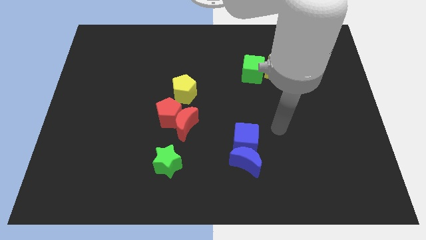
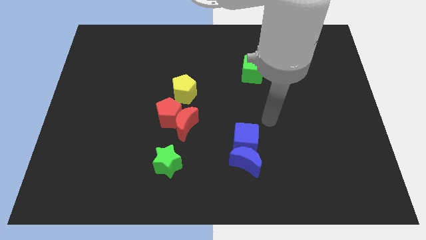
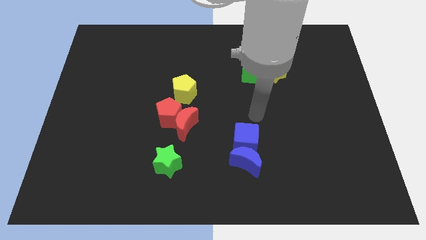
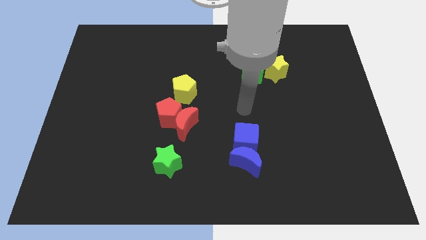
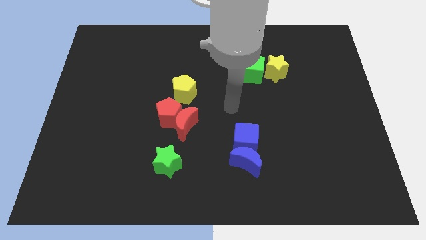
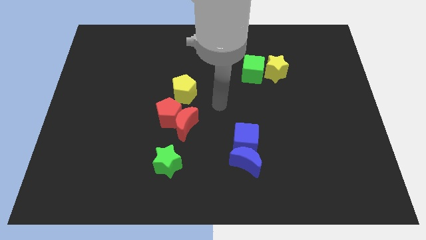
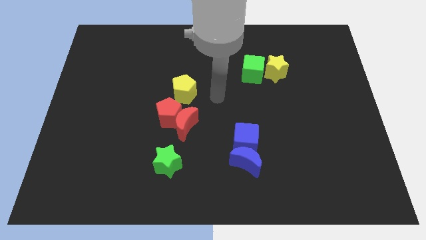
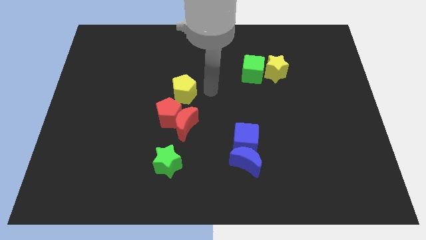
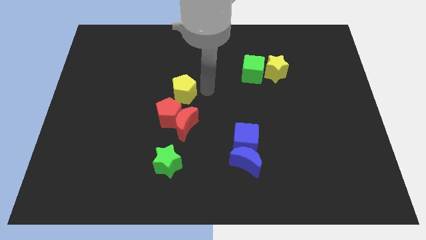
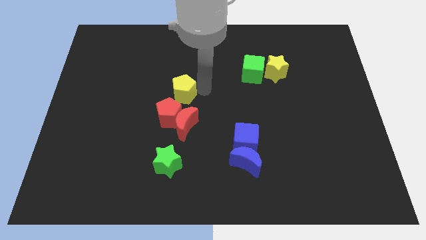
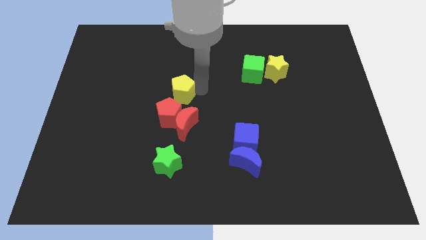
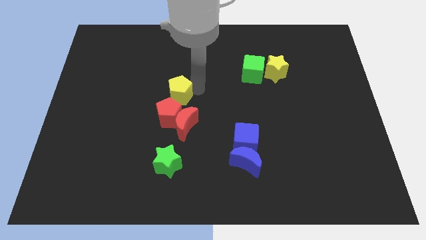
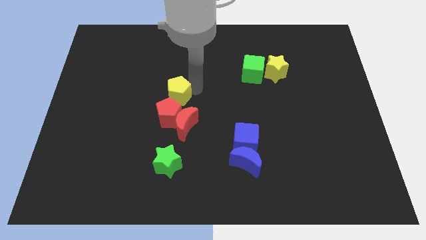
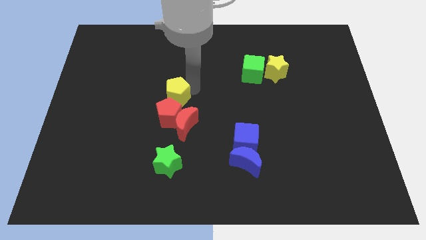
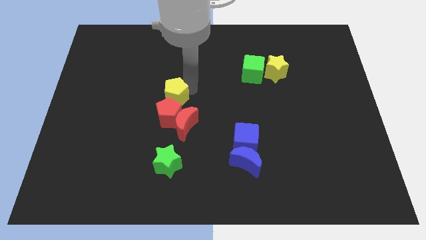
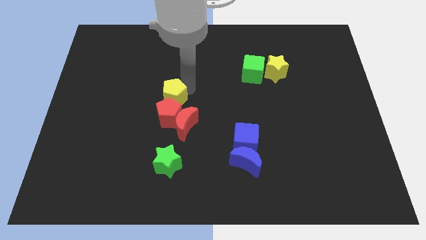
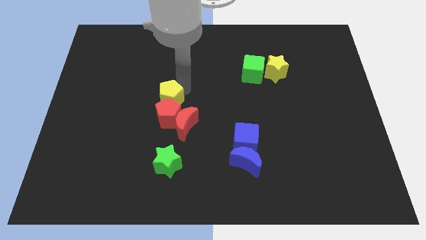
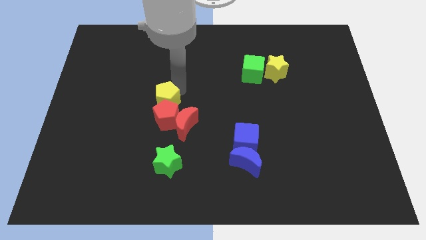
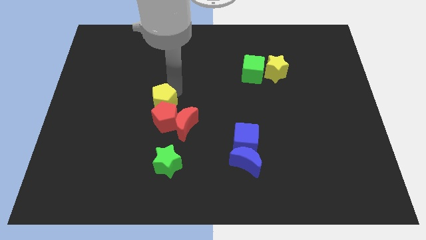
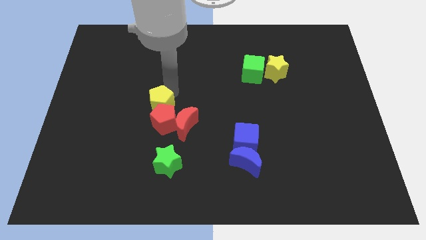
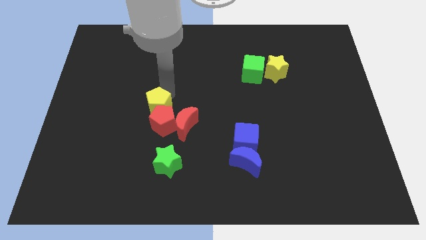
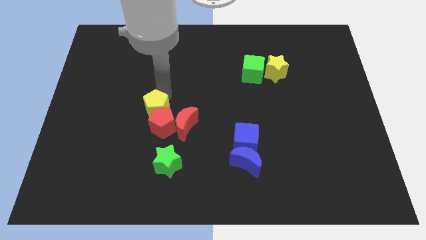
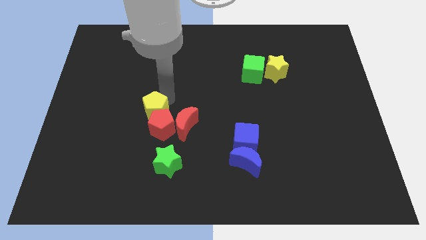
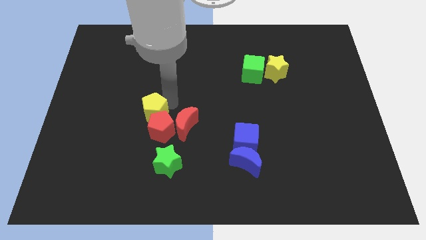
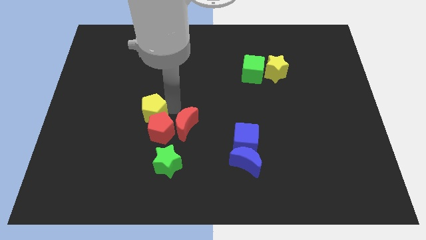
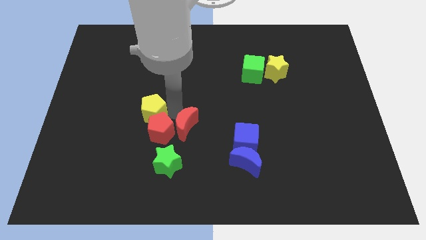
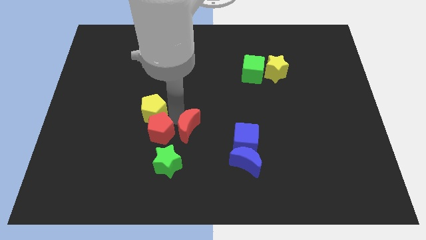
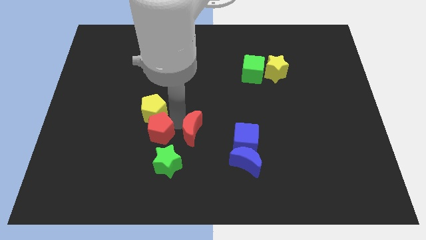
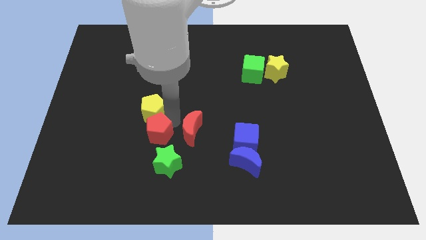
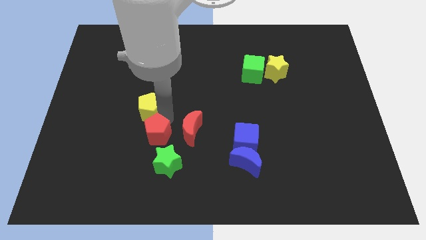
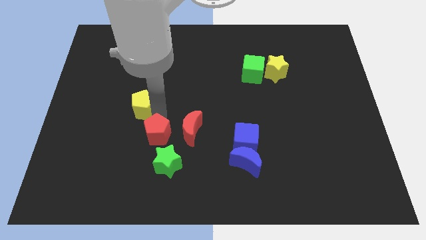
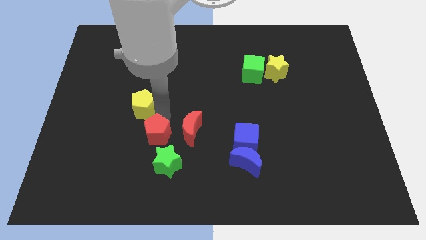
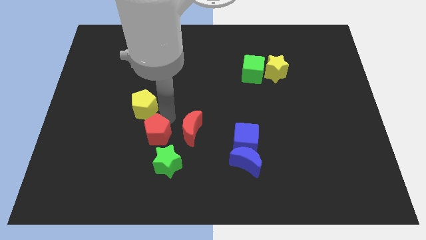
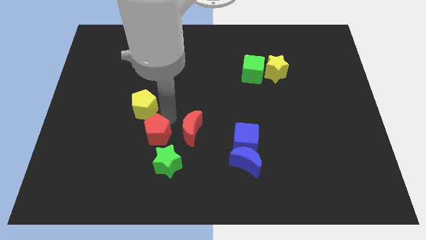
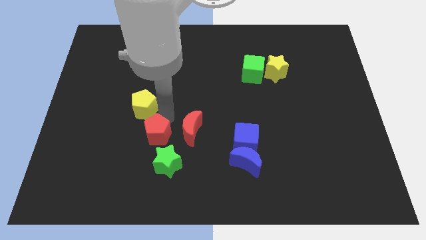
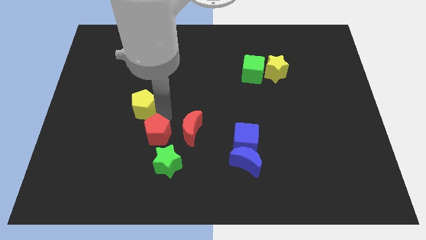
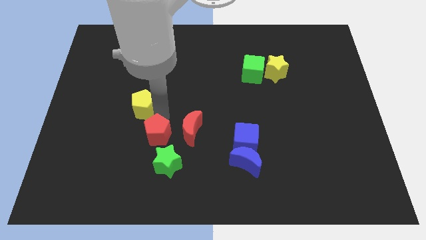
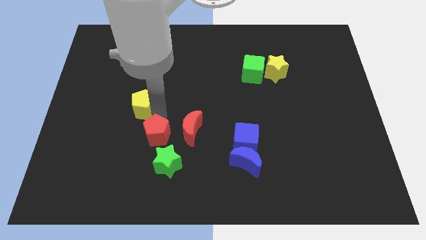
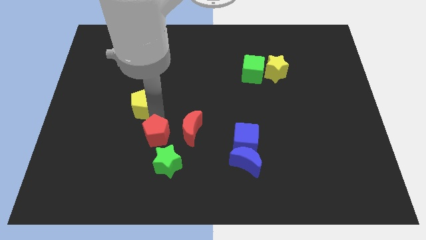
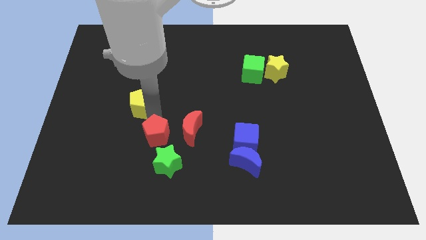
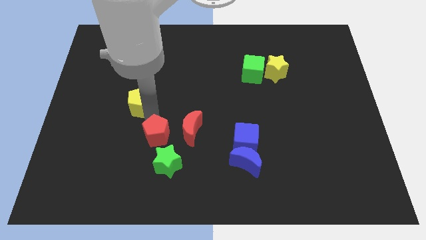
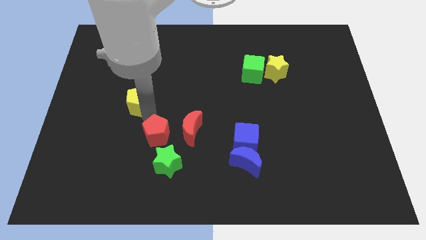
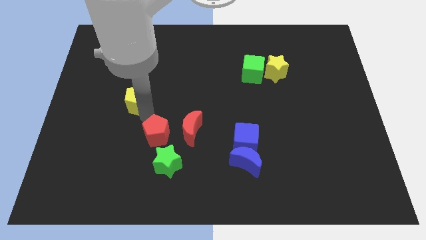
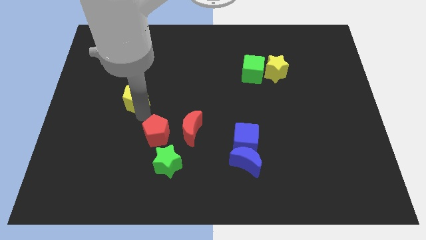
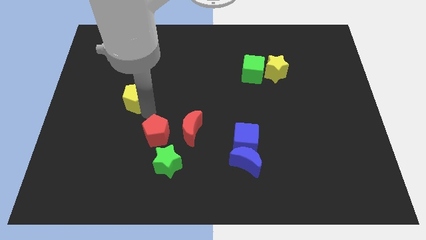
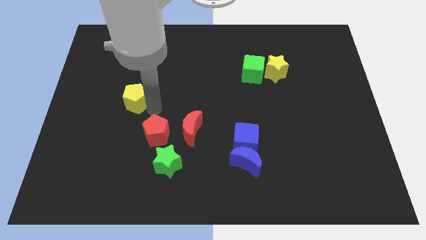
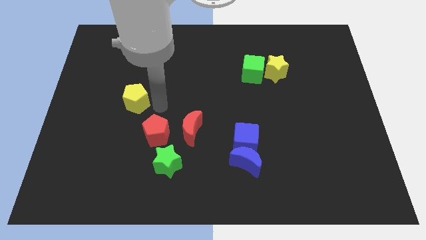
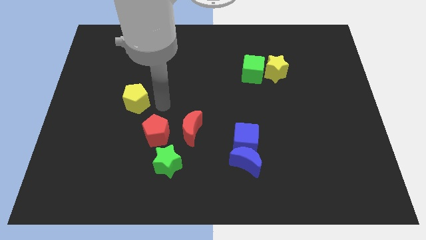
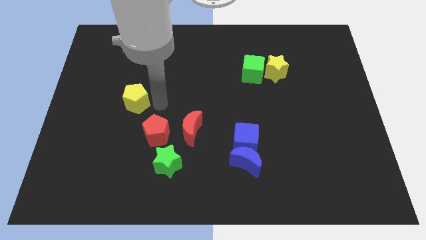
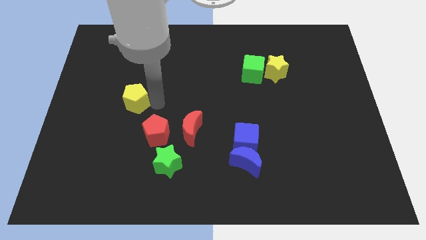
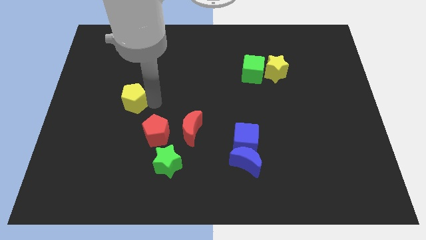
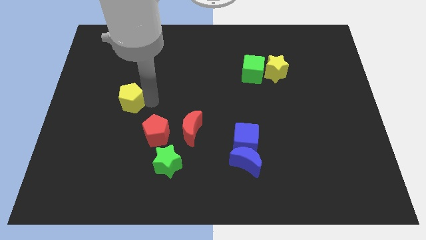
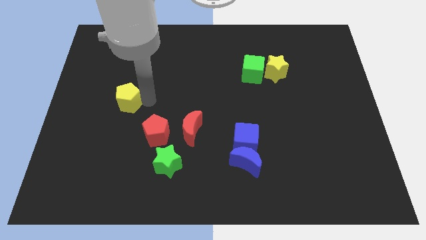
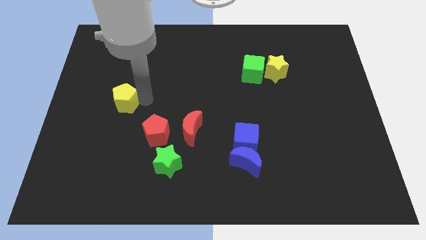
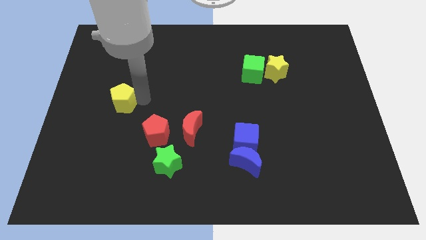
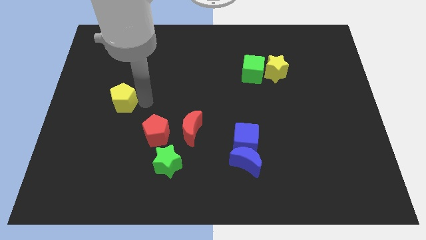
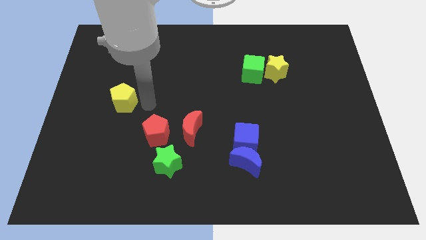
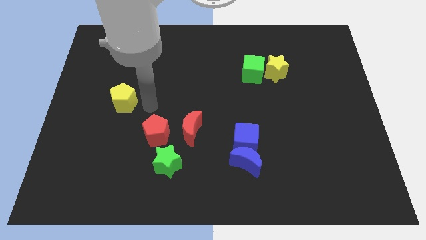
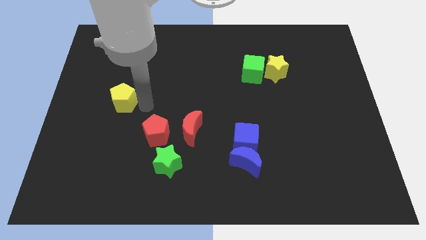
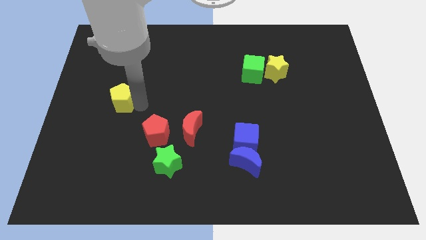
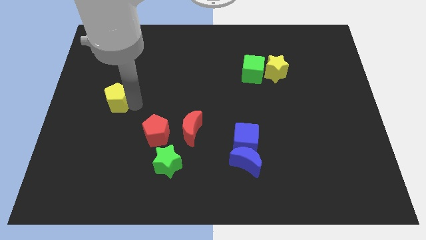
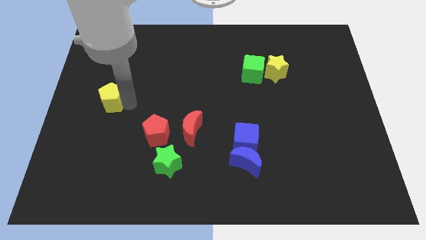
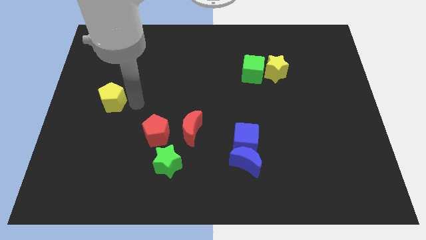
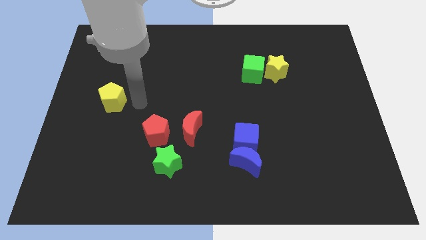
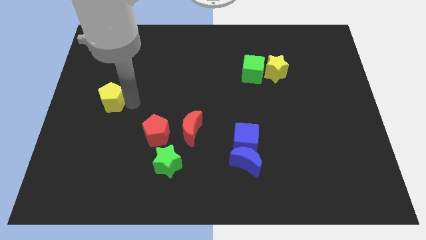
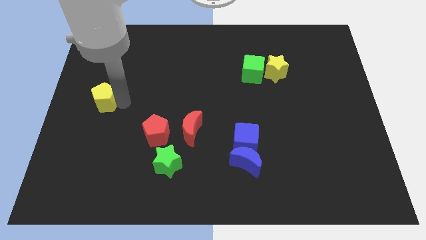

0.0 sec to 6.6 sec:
put the yellow pentagon to the left side
